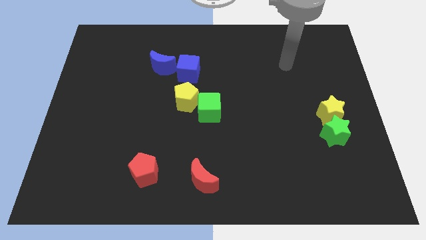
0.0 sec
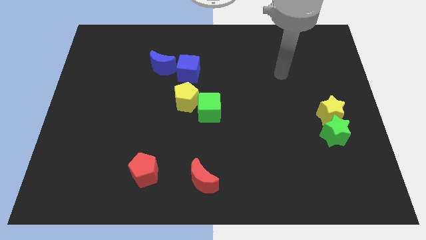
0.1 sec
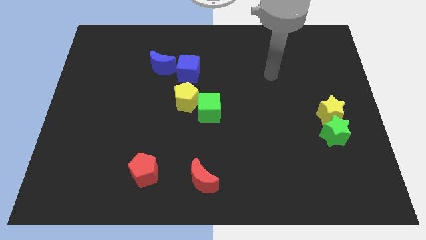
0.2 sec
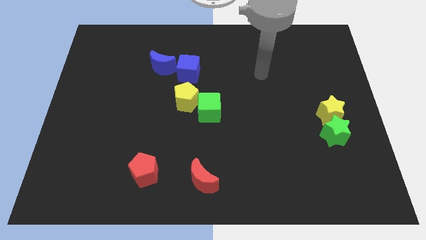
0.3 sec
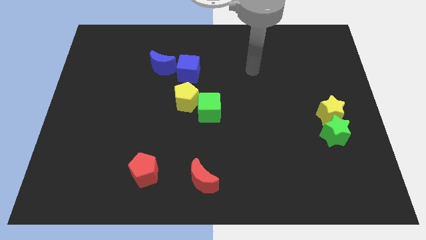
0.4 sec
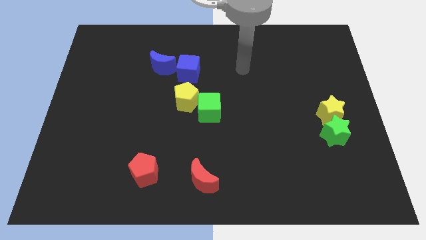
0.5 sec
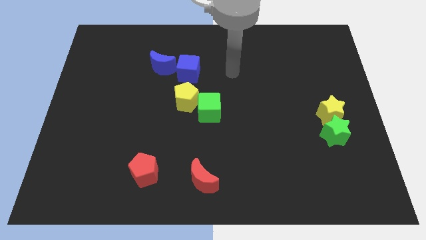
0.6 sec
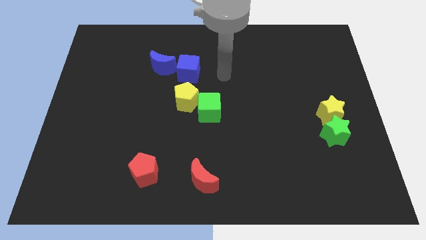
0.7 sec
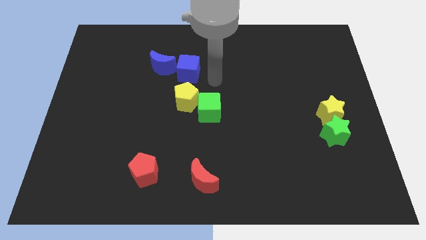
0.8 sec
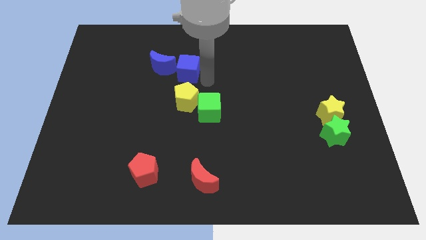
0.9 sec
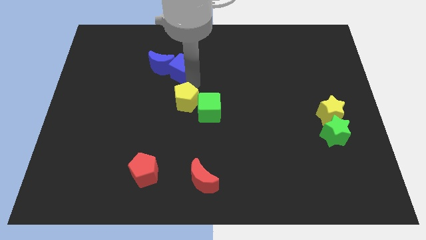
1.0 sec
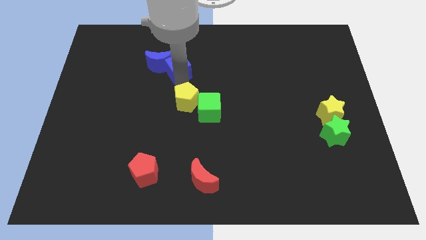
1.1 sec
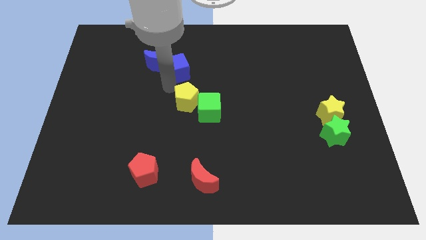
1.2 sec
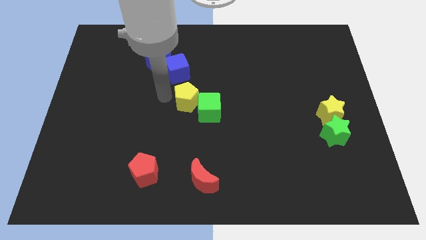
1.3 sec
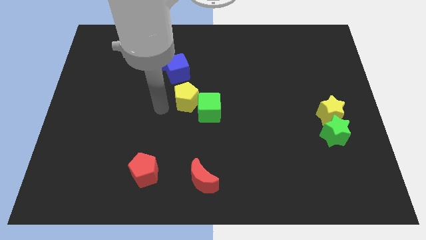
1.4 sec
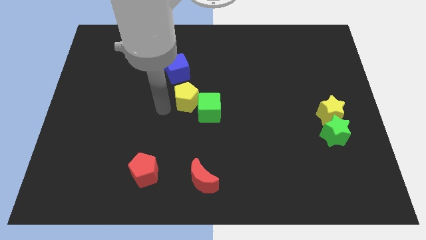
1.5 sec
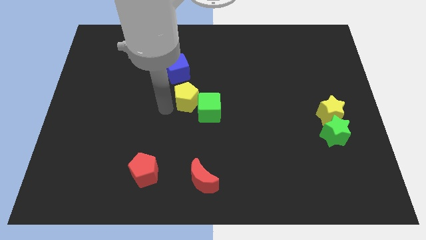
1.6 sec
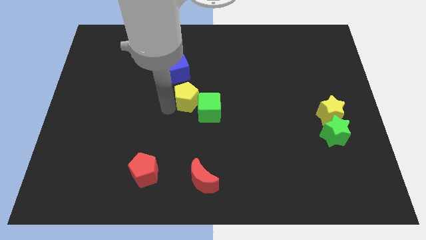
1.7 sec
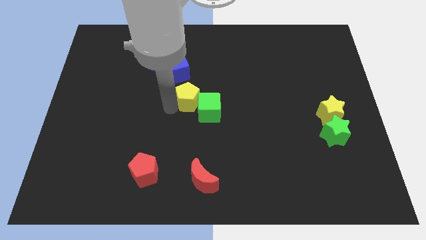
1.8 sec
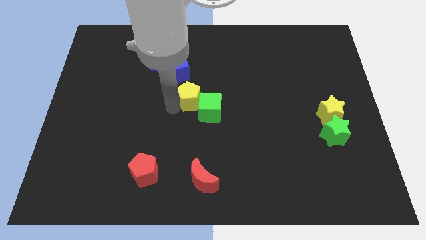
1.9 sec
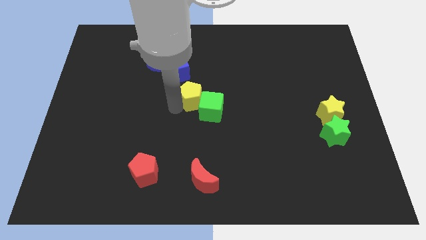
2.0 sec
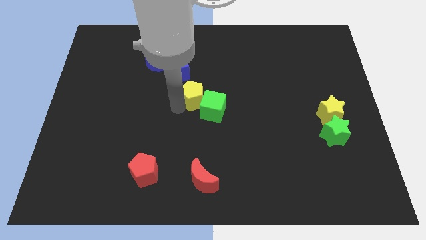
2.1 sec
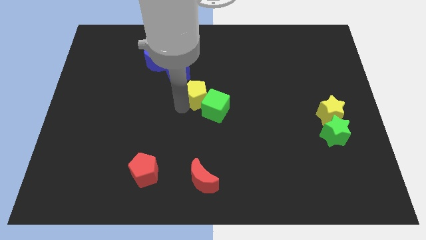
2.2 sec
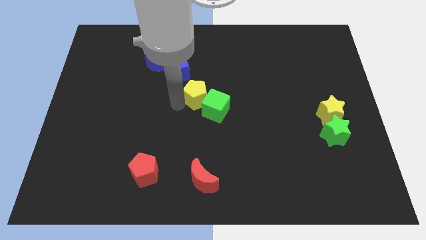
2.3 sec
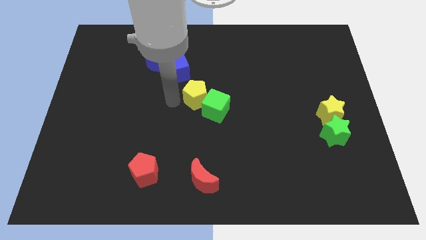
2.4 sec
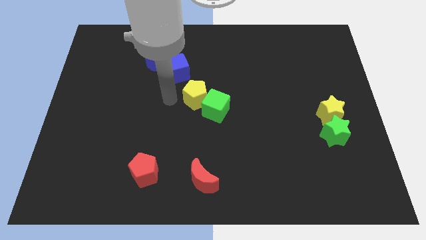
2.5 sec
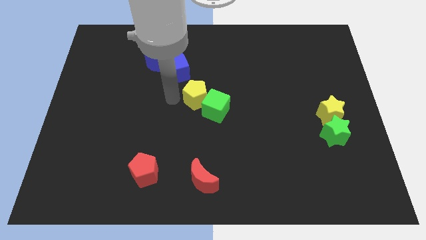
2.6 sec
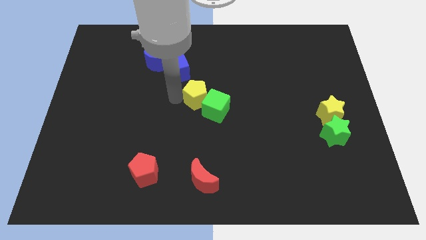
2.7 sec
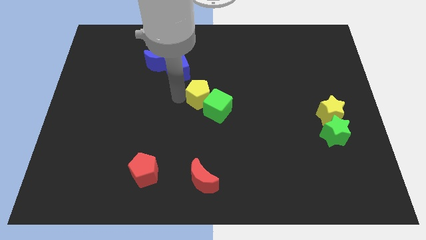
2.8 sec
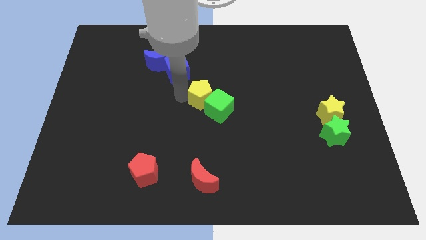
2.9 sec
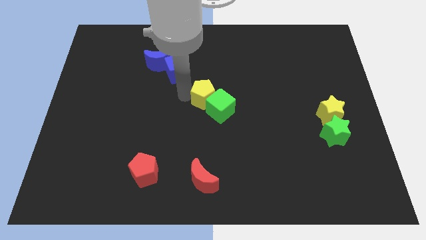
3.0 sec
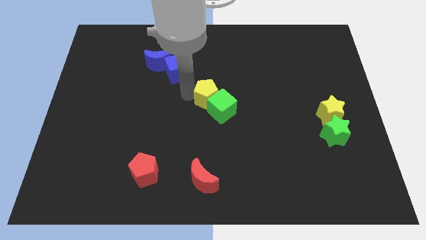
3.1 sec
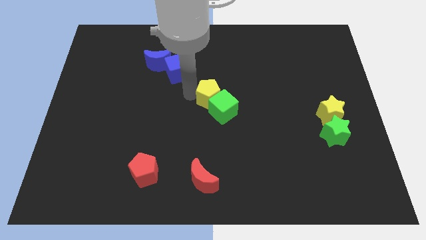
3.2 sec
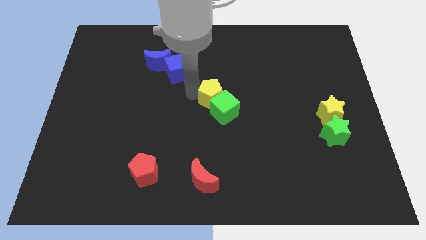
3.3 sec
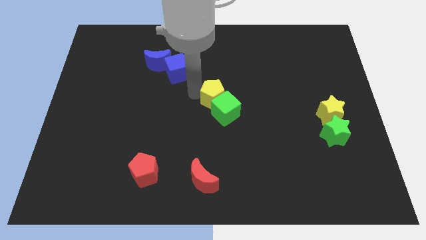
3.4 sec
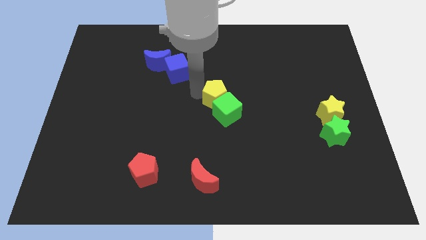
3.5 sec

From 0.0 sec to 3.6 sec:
push the yellow pentagon a little bit right

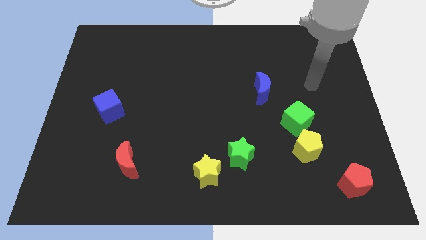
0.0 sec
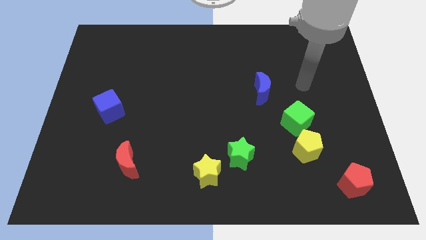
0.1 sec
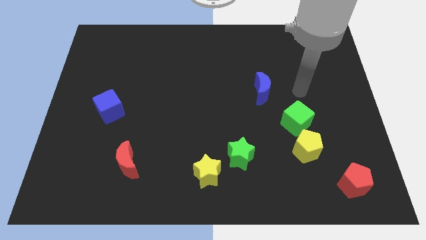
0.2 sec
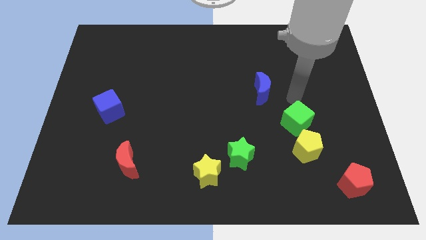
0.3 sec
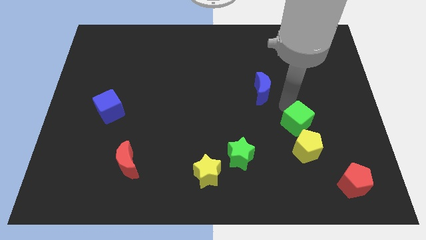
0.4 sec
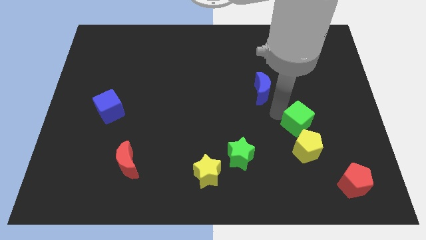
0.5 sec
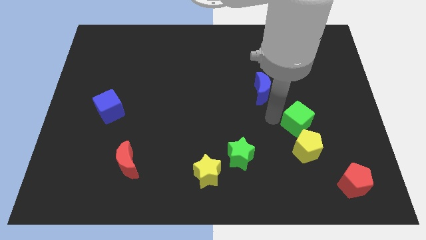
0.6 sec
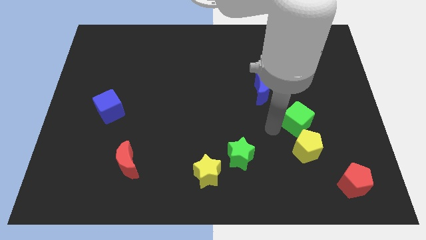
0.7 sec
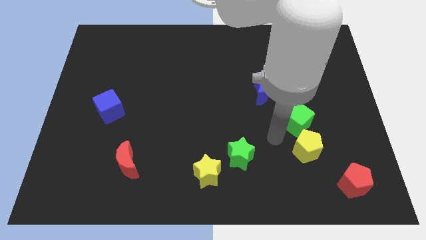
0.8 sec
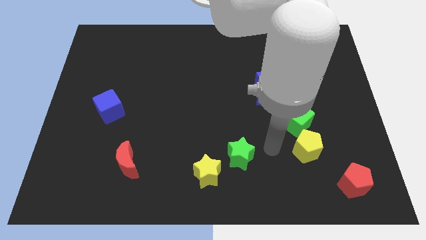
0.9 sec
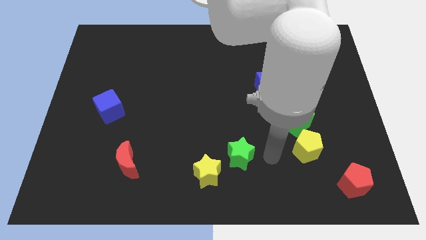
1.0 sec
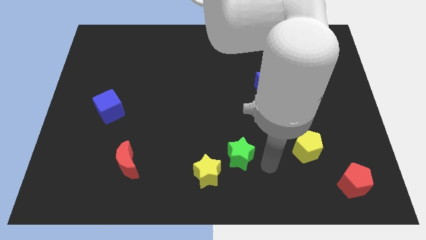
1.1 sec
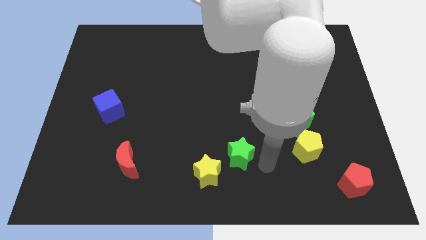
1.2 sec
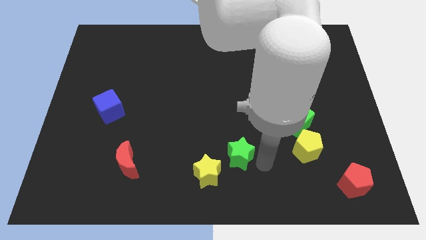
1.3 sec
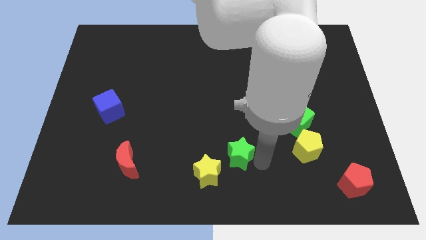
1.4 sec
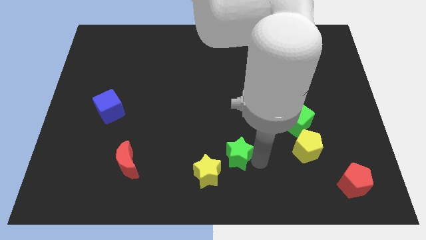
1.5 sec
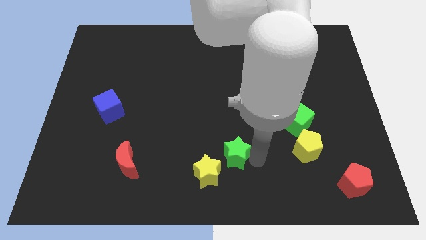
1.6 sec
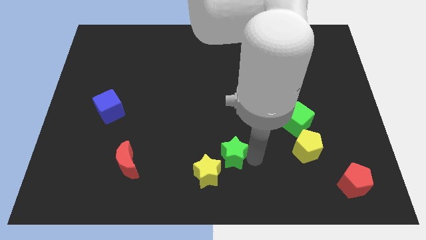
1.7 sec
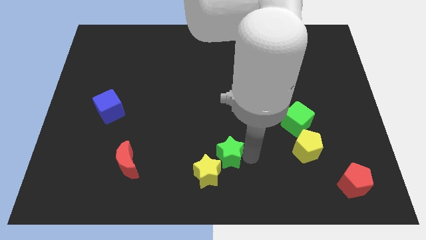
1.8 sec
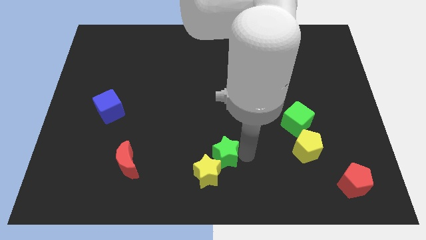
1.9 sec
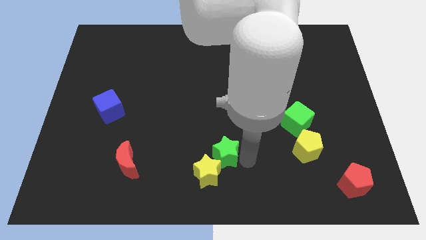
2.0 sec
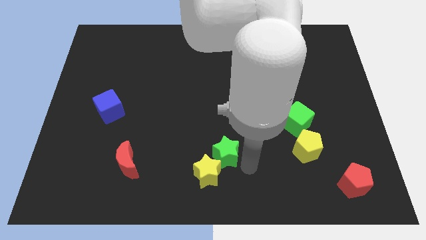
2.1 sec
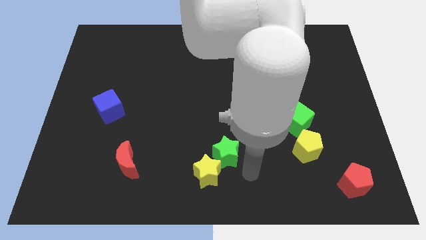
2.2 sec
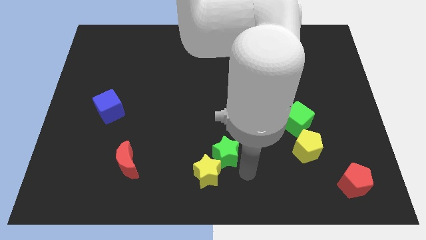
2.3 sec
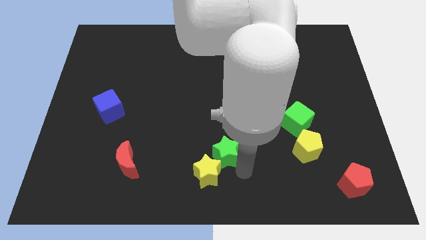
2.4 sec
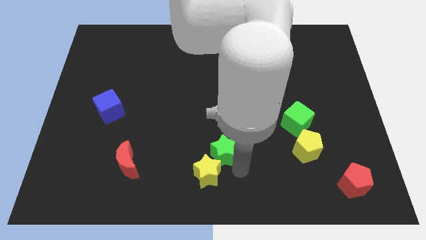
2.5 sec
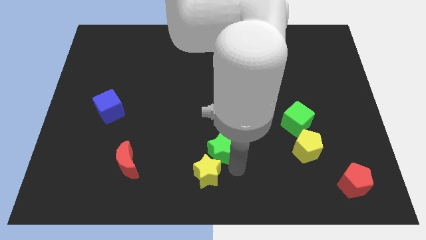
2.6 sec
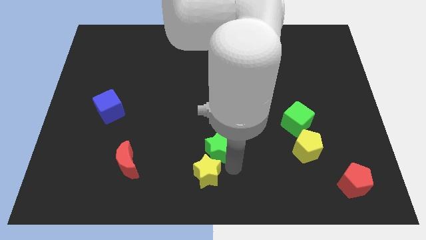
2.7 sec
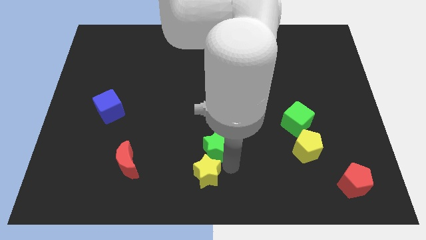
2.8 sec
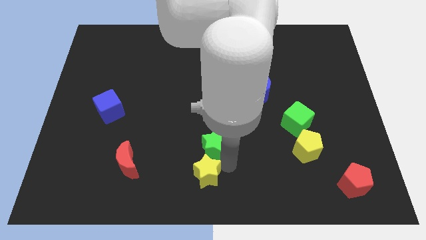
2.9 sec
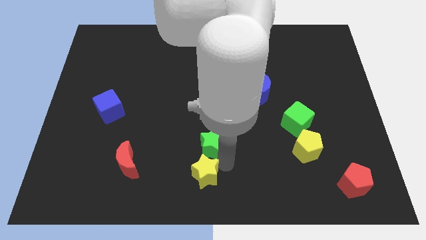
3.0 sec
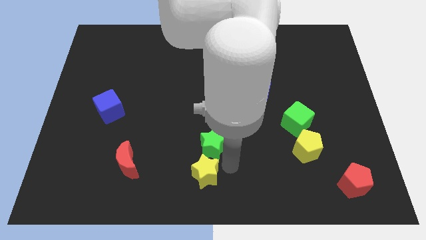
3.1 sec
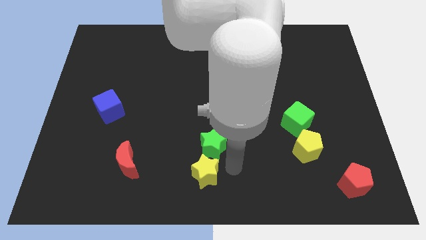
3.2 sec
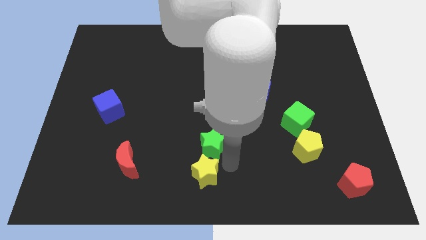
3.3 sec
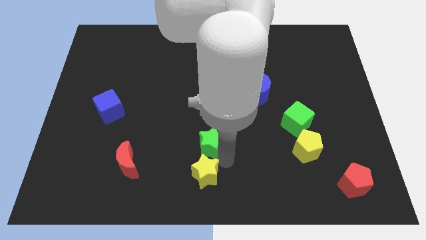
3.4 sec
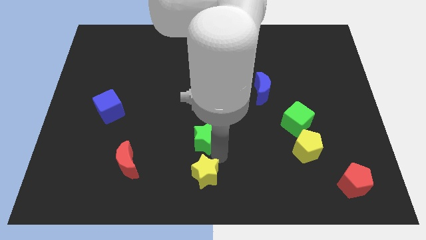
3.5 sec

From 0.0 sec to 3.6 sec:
slide the green star upwards and then to the left somewhat

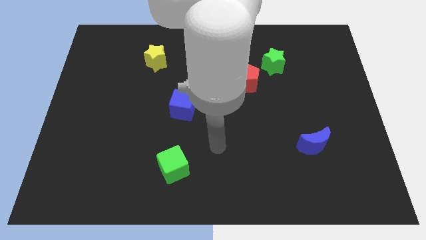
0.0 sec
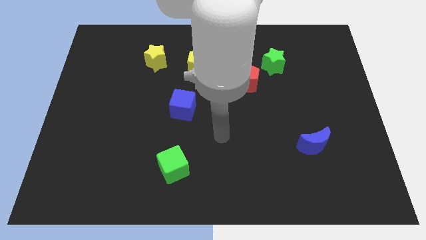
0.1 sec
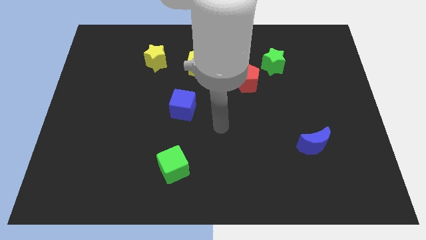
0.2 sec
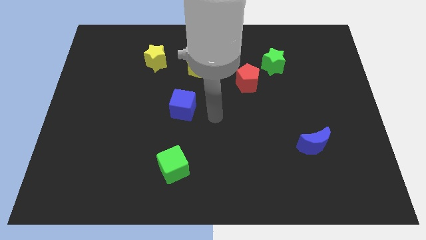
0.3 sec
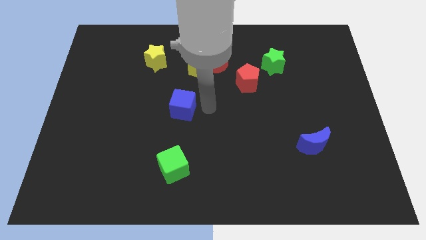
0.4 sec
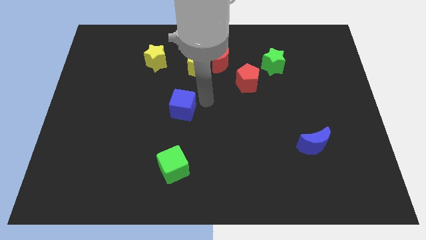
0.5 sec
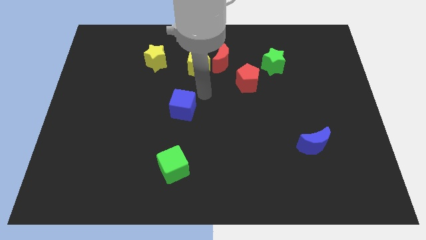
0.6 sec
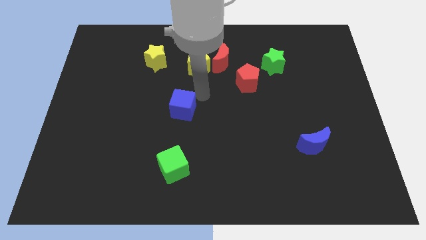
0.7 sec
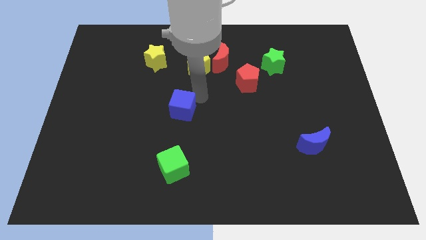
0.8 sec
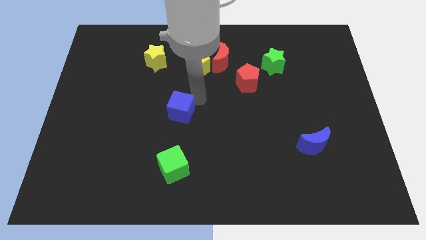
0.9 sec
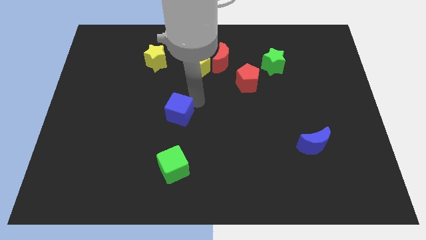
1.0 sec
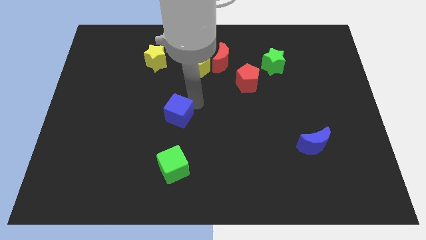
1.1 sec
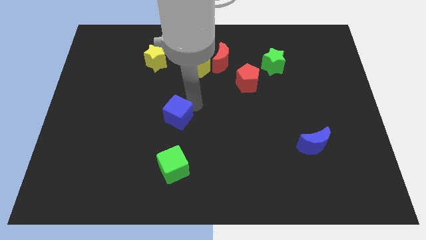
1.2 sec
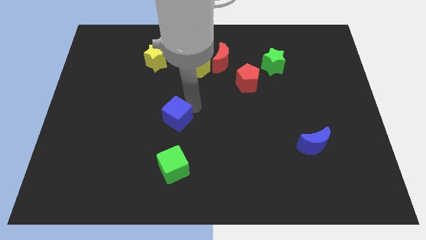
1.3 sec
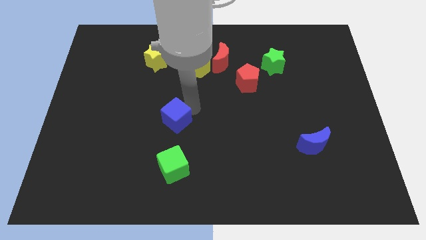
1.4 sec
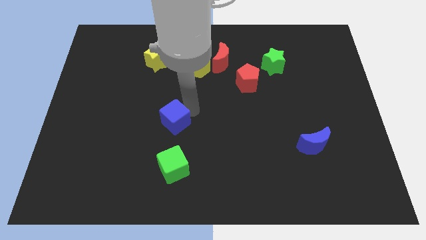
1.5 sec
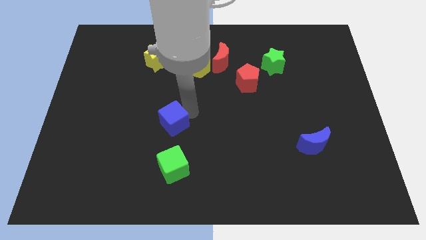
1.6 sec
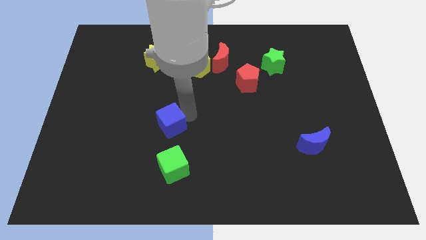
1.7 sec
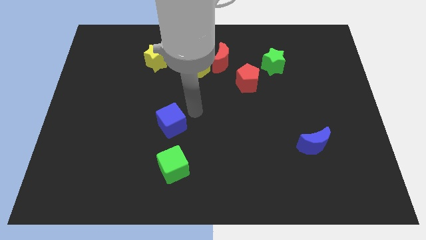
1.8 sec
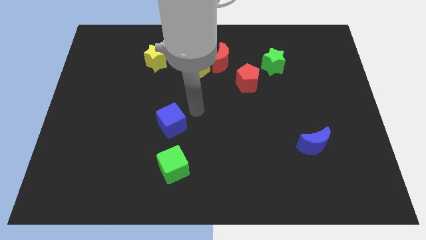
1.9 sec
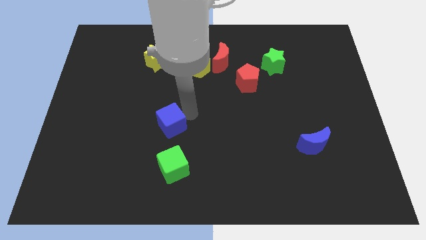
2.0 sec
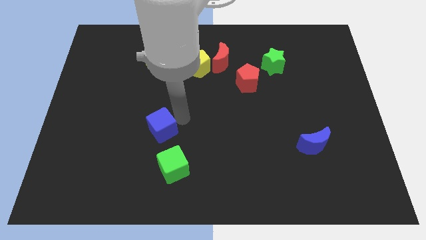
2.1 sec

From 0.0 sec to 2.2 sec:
slide the blue cube down and then to the left a little bit
